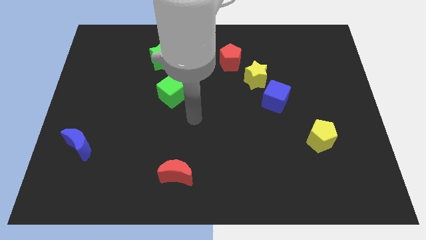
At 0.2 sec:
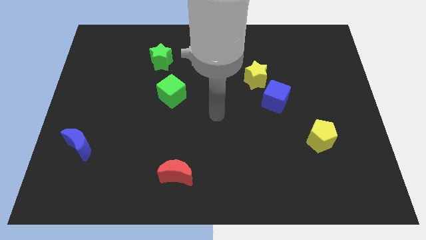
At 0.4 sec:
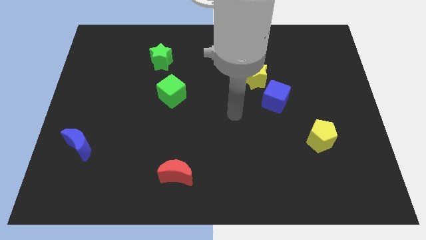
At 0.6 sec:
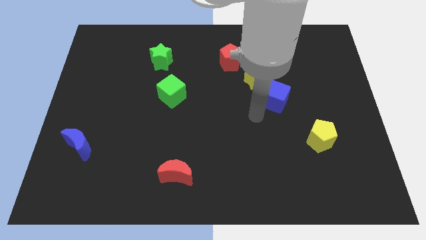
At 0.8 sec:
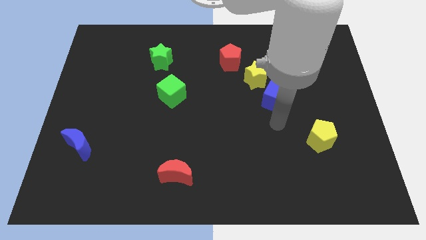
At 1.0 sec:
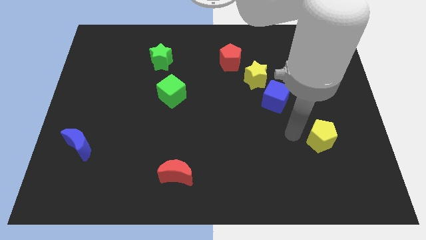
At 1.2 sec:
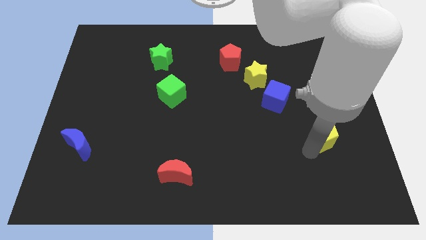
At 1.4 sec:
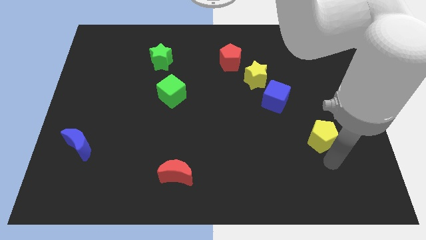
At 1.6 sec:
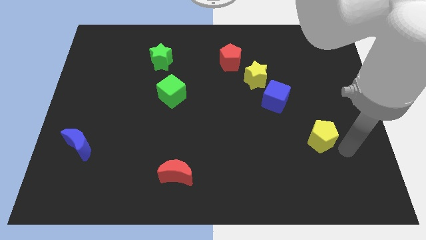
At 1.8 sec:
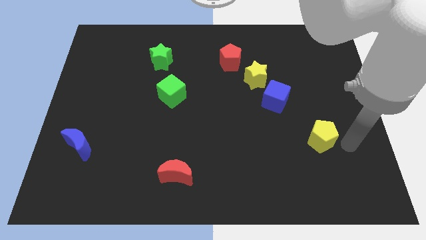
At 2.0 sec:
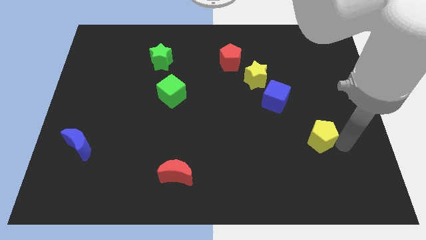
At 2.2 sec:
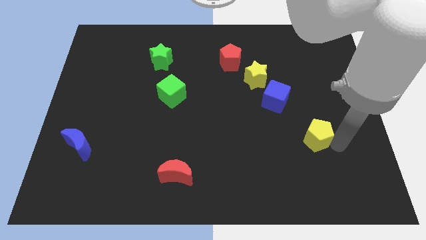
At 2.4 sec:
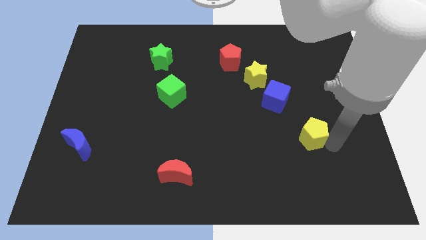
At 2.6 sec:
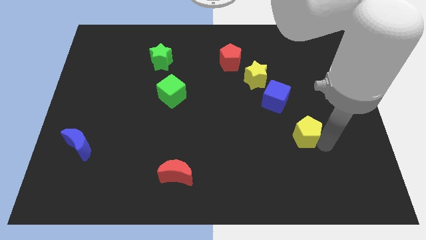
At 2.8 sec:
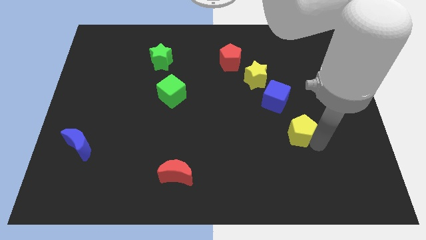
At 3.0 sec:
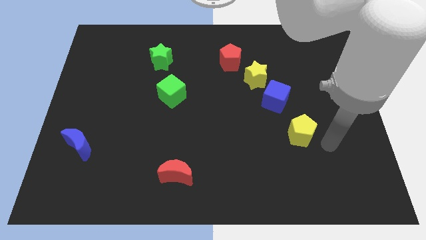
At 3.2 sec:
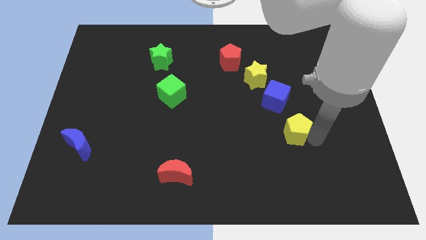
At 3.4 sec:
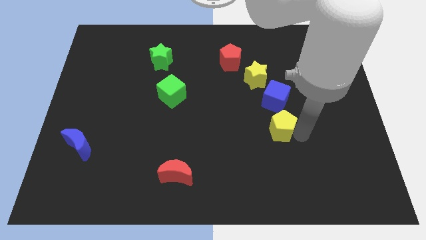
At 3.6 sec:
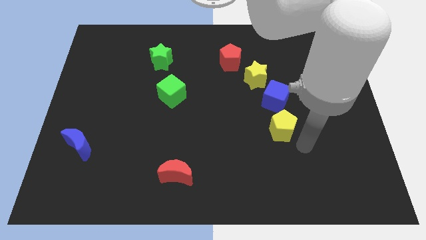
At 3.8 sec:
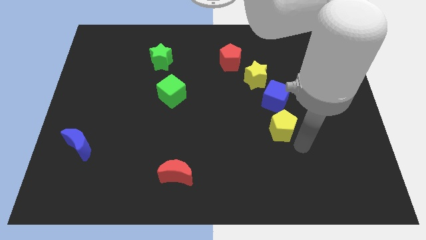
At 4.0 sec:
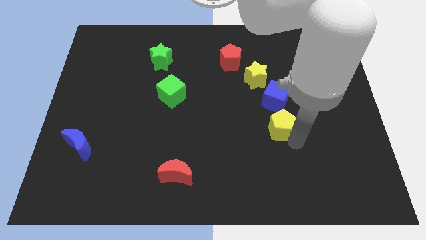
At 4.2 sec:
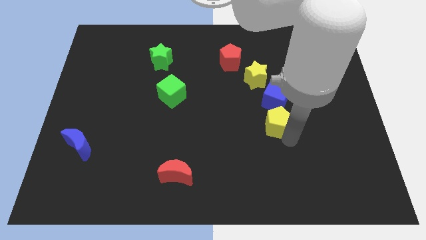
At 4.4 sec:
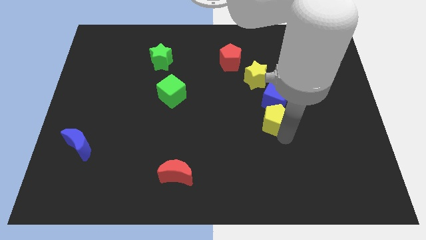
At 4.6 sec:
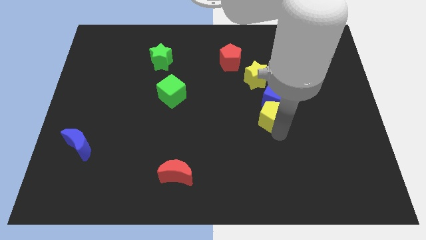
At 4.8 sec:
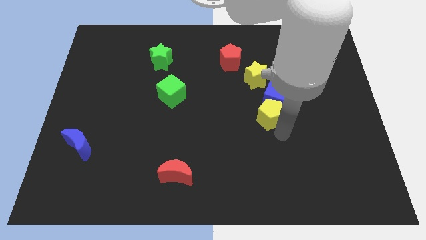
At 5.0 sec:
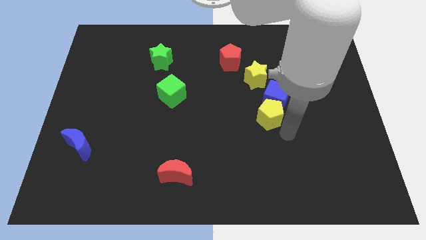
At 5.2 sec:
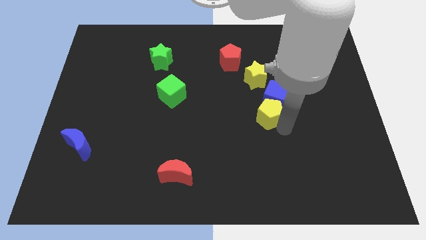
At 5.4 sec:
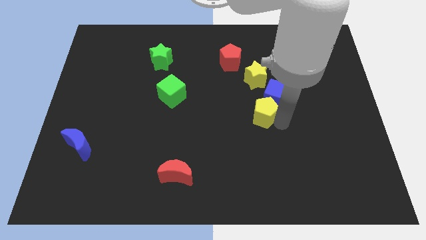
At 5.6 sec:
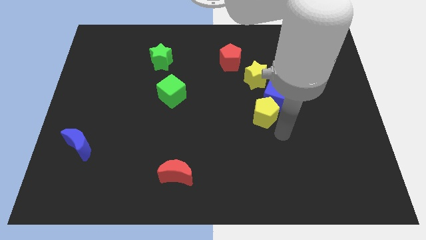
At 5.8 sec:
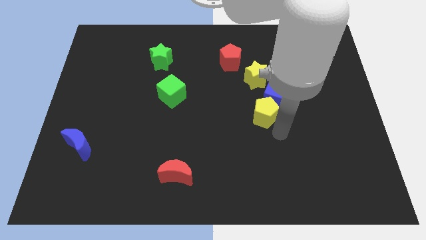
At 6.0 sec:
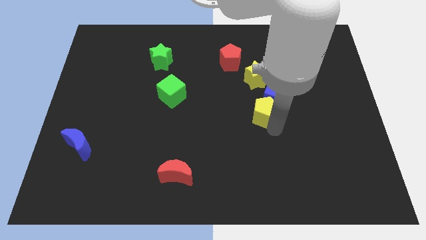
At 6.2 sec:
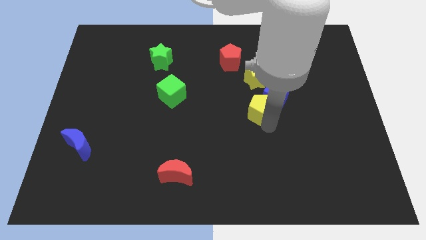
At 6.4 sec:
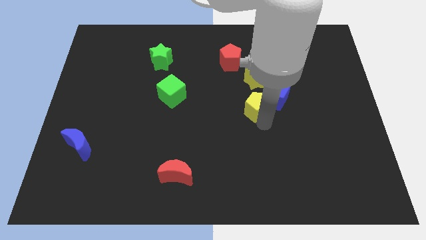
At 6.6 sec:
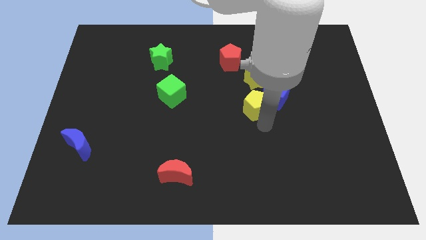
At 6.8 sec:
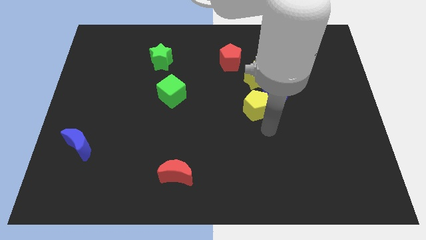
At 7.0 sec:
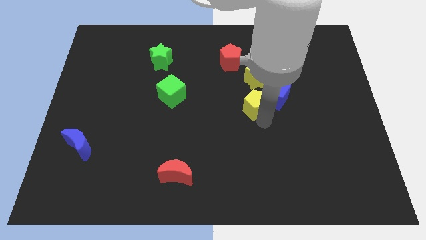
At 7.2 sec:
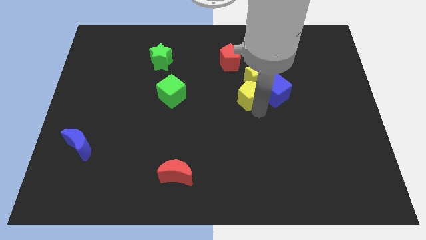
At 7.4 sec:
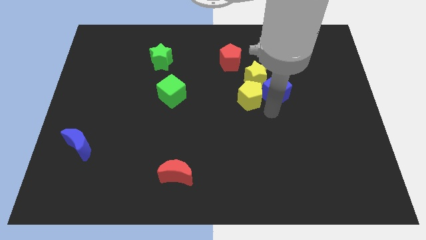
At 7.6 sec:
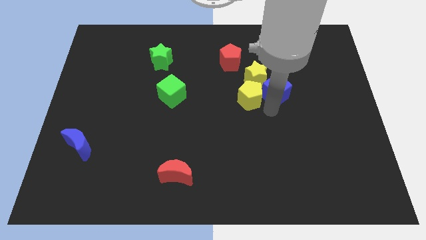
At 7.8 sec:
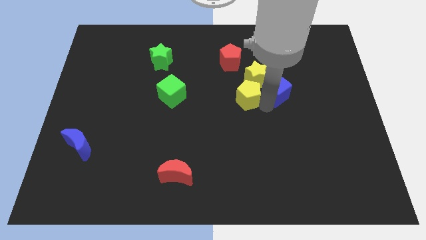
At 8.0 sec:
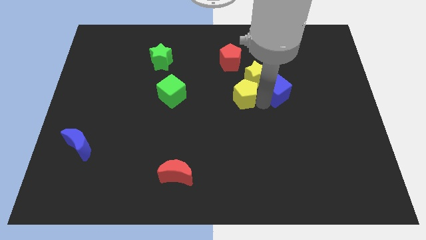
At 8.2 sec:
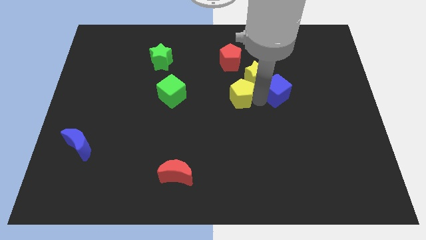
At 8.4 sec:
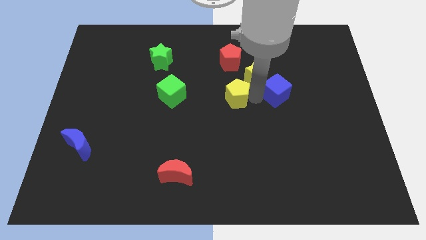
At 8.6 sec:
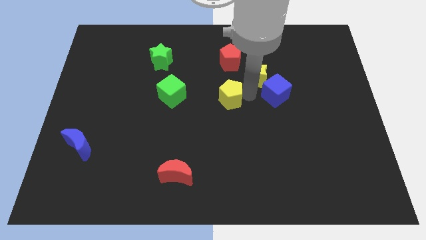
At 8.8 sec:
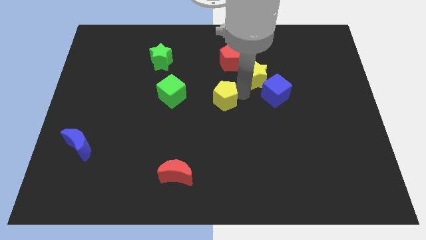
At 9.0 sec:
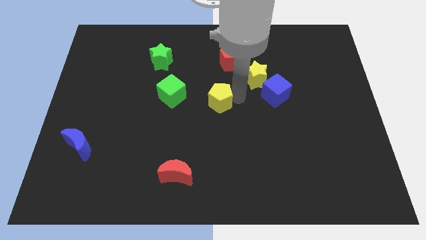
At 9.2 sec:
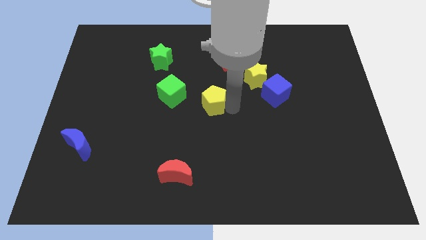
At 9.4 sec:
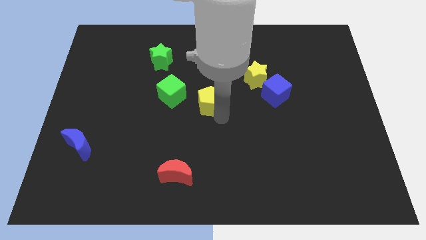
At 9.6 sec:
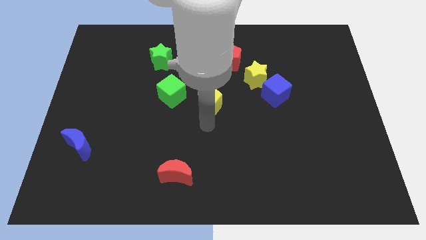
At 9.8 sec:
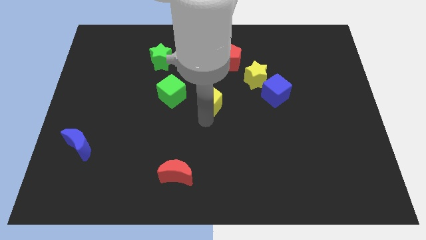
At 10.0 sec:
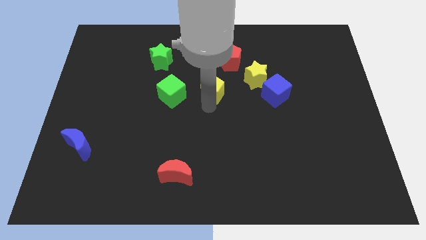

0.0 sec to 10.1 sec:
push the yellow pentagon just left of the yellow star

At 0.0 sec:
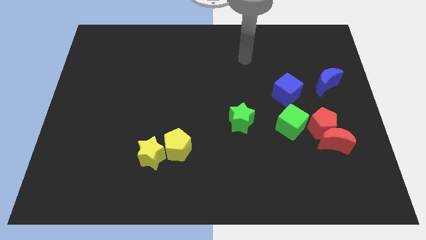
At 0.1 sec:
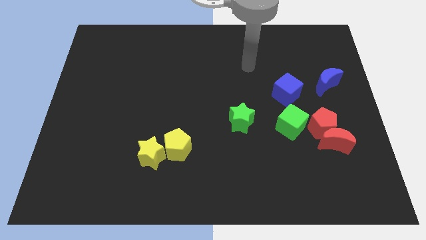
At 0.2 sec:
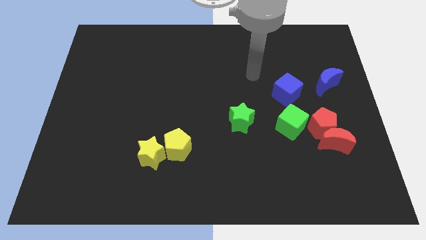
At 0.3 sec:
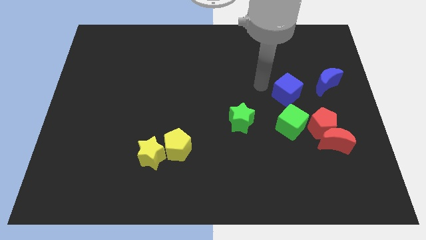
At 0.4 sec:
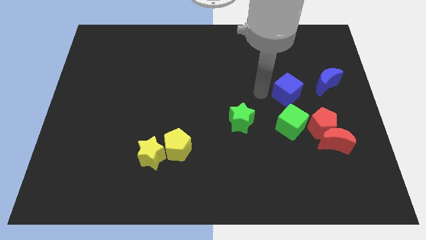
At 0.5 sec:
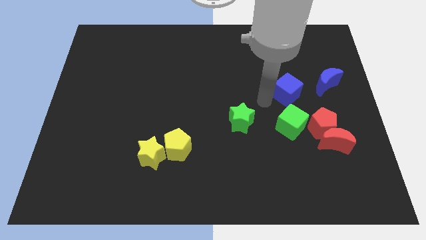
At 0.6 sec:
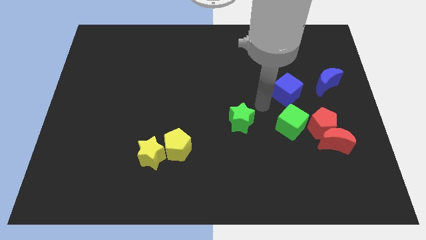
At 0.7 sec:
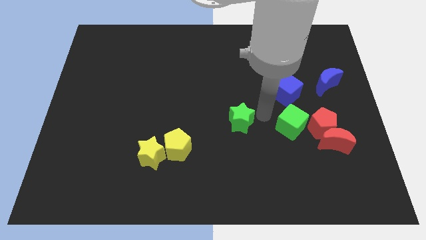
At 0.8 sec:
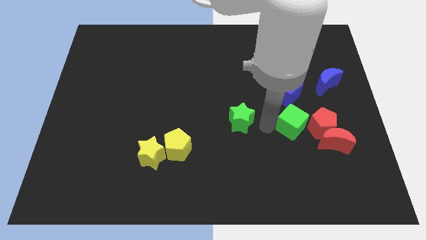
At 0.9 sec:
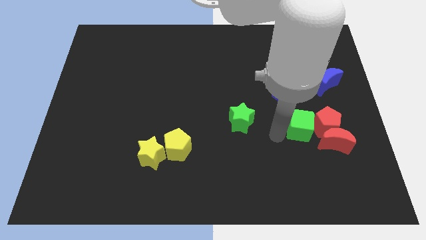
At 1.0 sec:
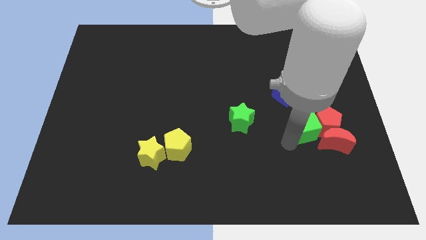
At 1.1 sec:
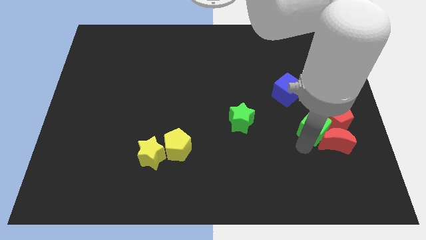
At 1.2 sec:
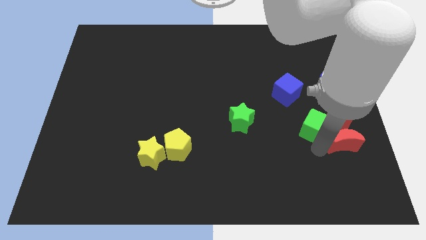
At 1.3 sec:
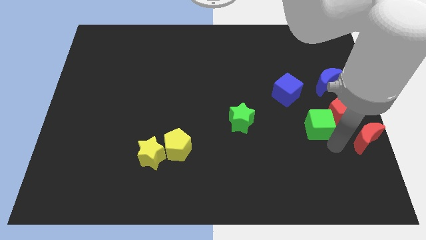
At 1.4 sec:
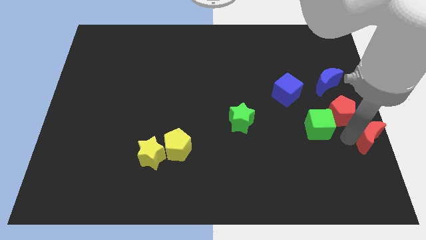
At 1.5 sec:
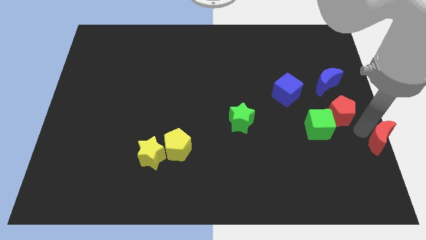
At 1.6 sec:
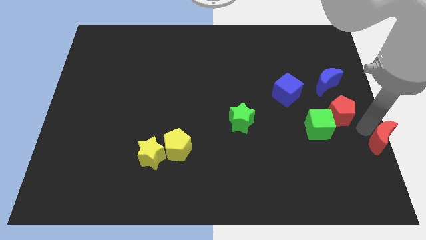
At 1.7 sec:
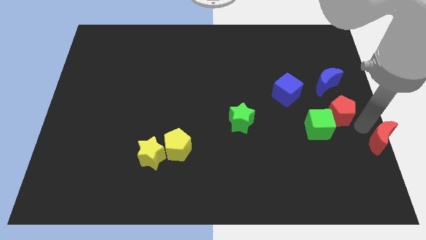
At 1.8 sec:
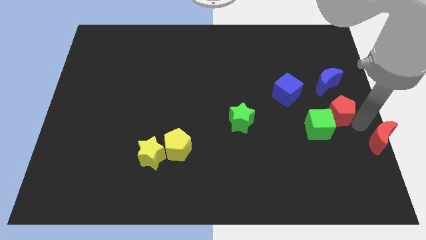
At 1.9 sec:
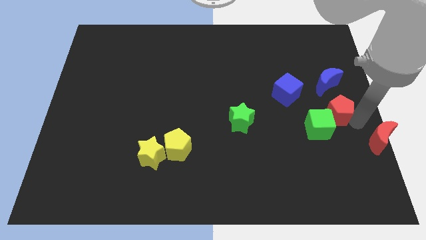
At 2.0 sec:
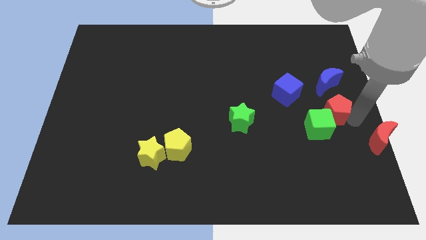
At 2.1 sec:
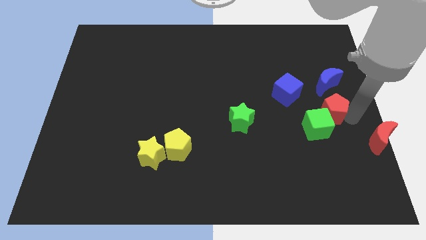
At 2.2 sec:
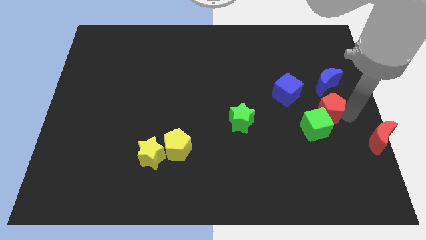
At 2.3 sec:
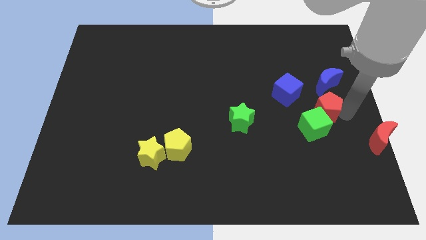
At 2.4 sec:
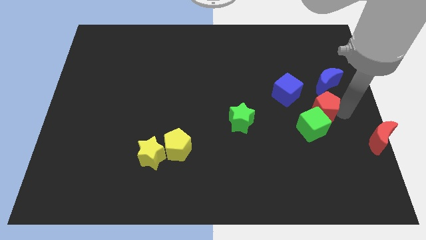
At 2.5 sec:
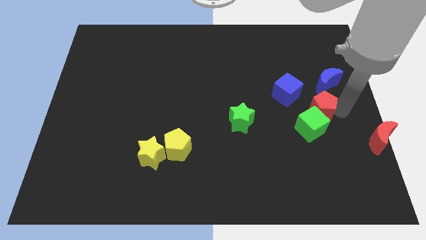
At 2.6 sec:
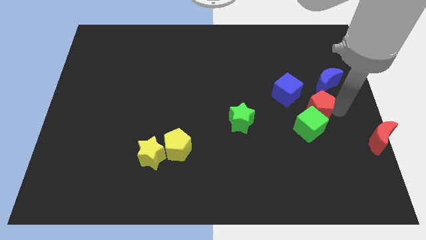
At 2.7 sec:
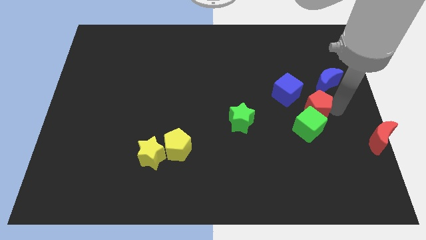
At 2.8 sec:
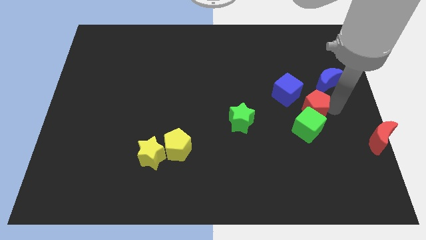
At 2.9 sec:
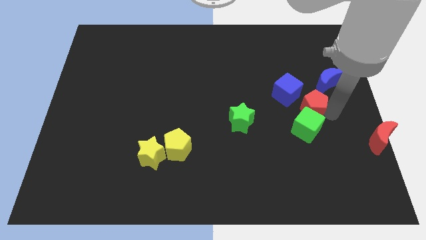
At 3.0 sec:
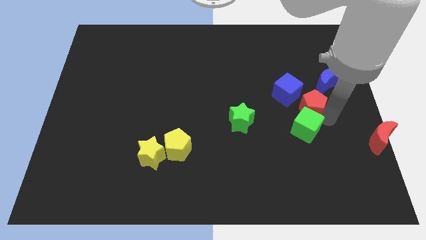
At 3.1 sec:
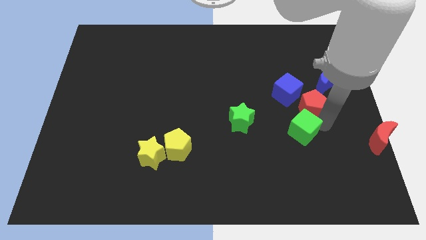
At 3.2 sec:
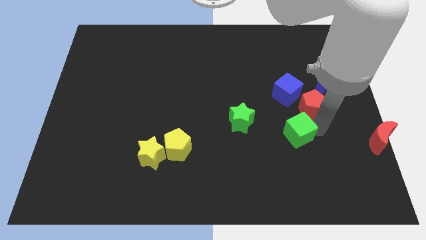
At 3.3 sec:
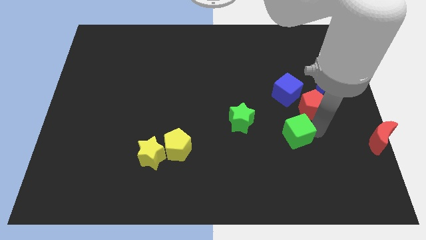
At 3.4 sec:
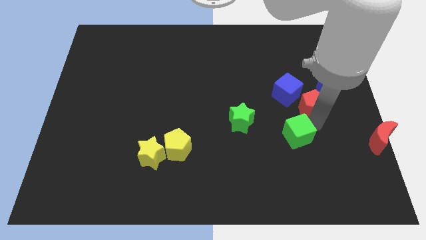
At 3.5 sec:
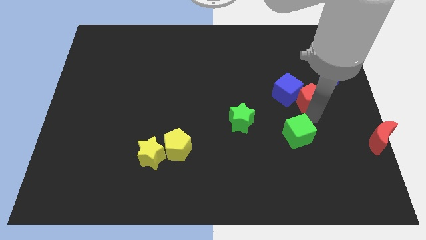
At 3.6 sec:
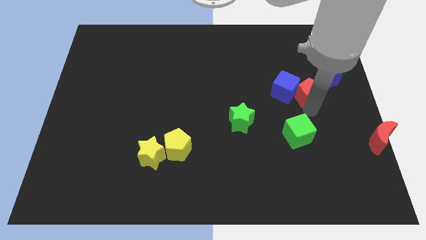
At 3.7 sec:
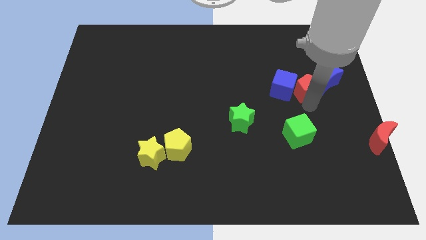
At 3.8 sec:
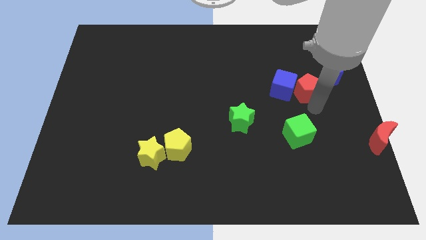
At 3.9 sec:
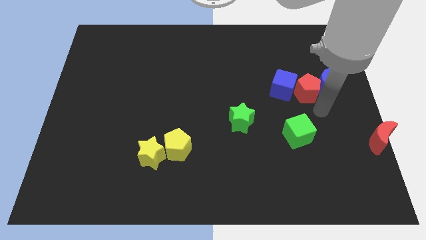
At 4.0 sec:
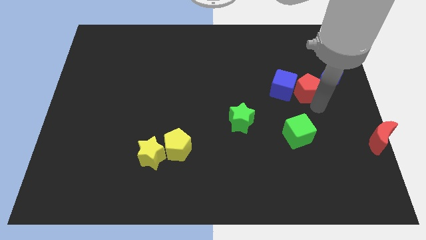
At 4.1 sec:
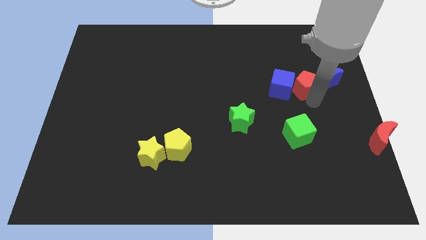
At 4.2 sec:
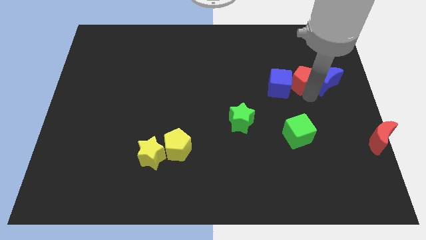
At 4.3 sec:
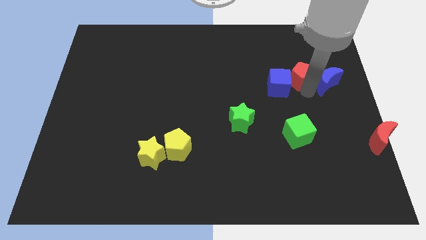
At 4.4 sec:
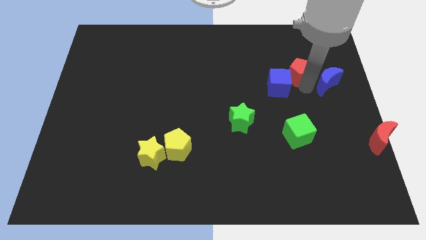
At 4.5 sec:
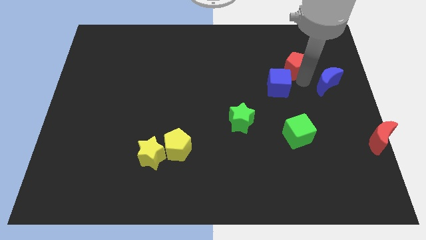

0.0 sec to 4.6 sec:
move the red pentagon to the top side of the blue cube
